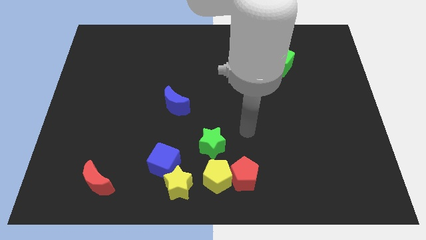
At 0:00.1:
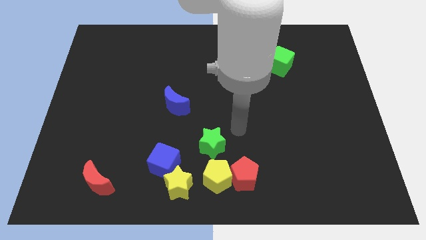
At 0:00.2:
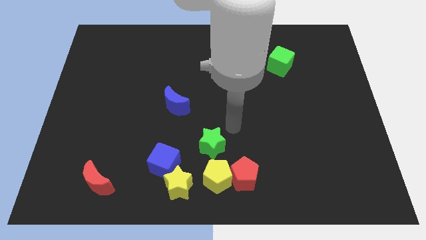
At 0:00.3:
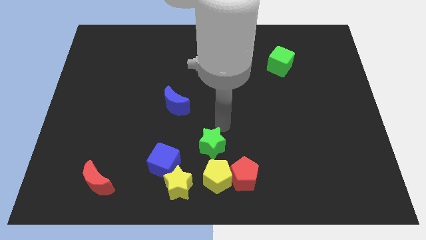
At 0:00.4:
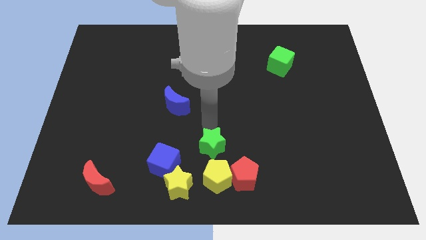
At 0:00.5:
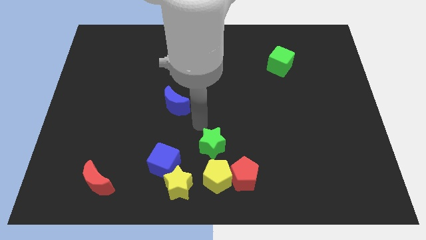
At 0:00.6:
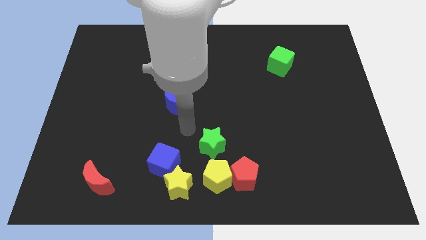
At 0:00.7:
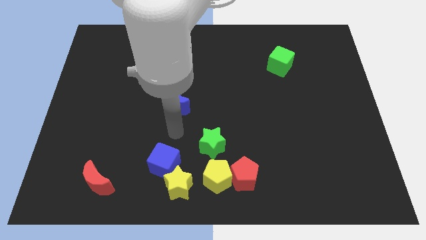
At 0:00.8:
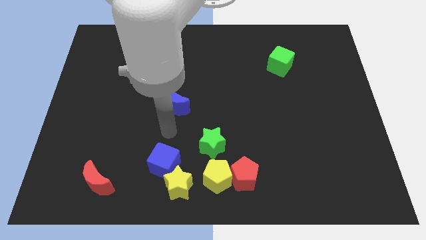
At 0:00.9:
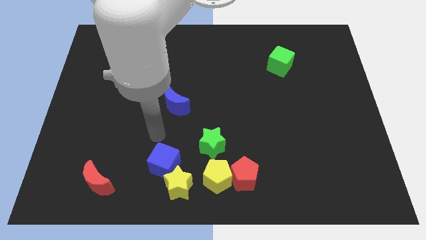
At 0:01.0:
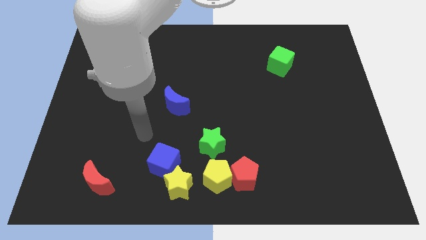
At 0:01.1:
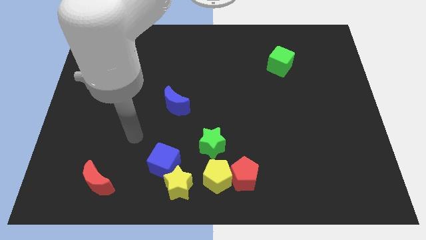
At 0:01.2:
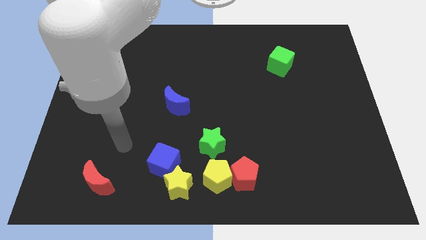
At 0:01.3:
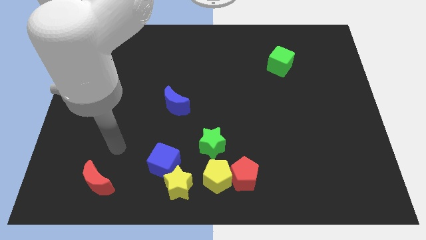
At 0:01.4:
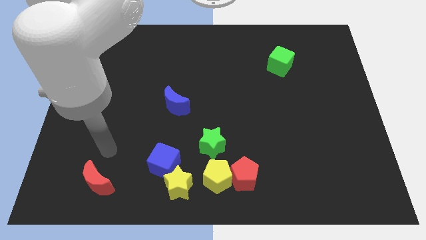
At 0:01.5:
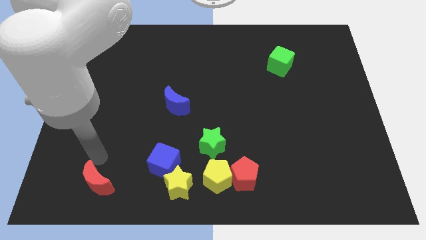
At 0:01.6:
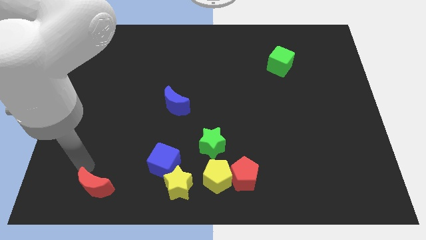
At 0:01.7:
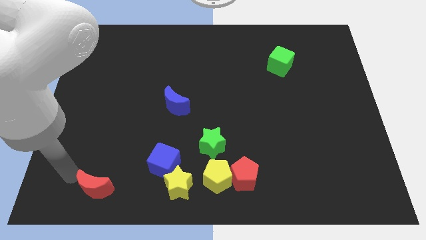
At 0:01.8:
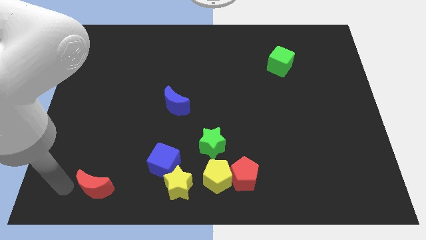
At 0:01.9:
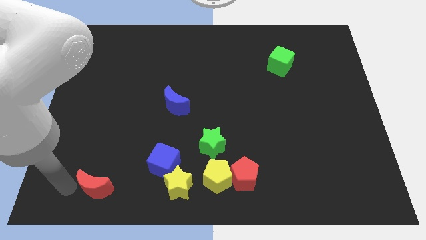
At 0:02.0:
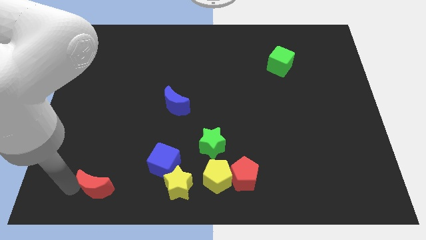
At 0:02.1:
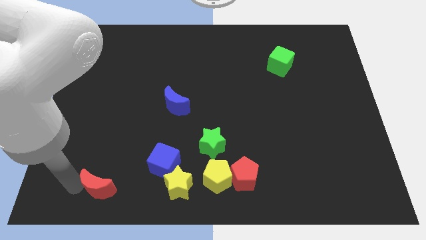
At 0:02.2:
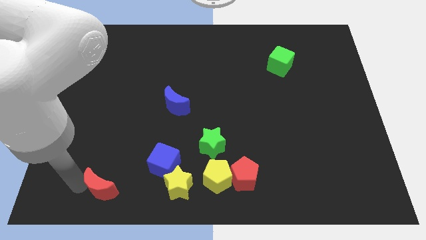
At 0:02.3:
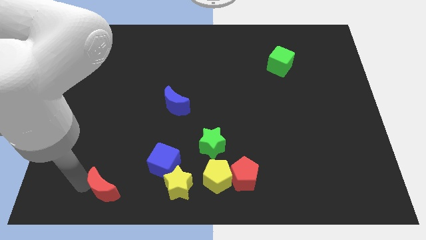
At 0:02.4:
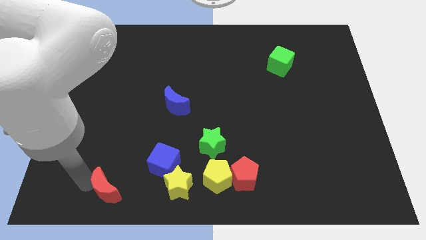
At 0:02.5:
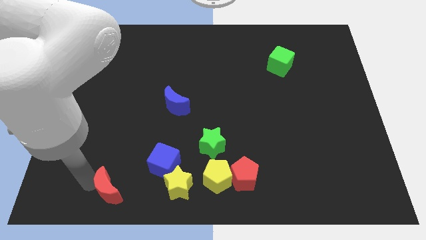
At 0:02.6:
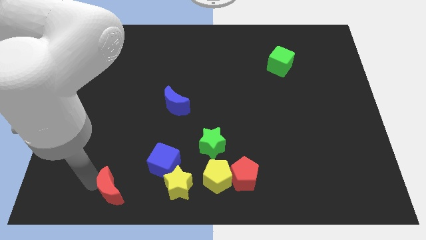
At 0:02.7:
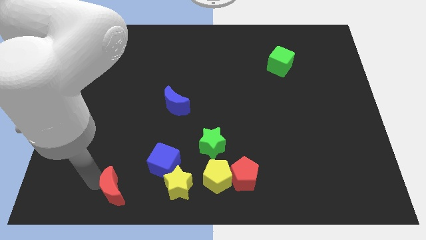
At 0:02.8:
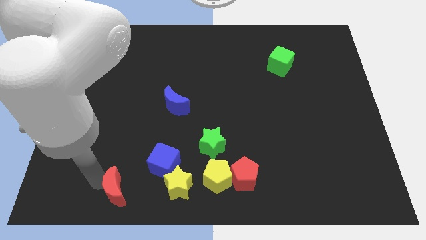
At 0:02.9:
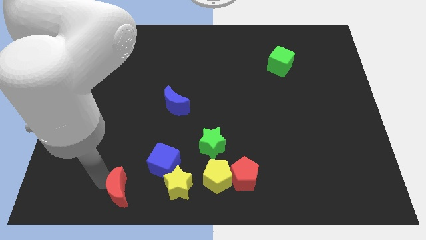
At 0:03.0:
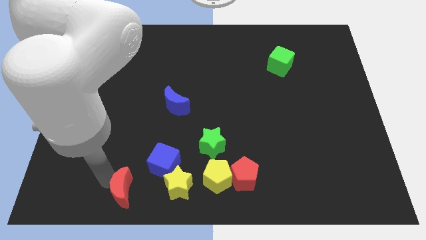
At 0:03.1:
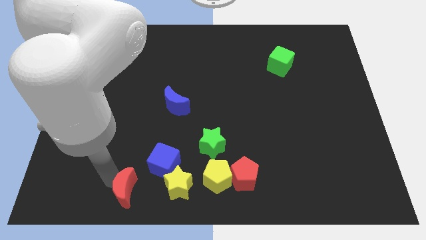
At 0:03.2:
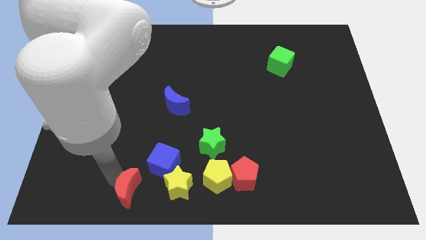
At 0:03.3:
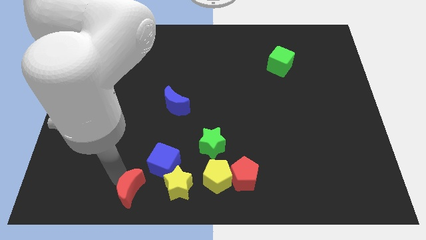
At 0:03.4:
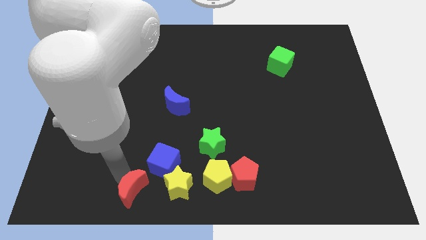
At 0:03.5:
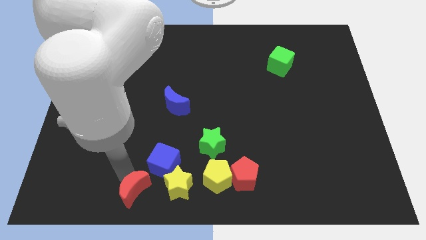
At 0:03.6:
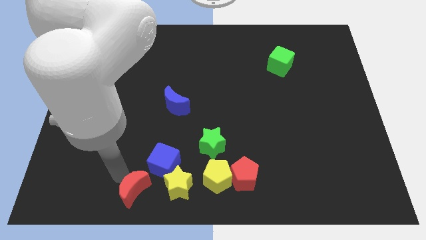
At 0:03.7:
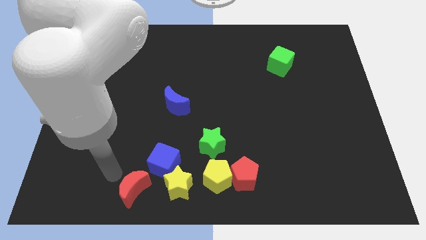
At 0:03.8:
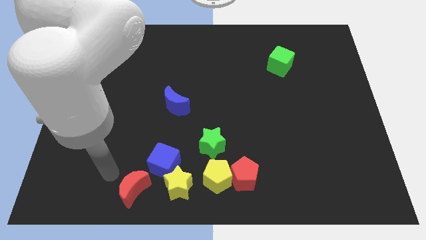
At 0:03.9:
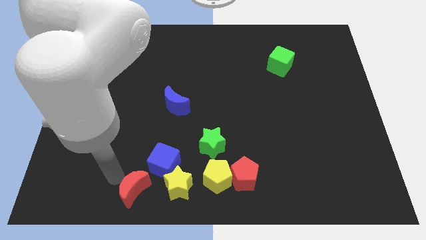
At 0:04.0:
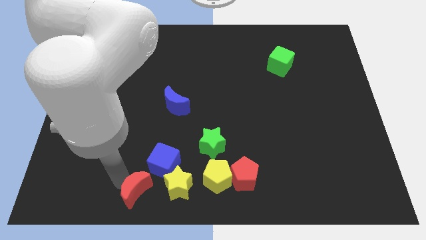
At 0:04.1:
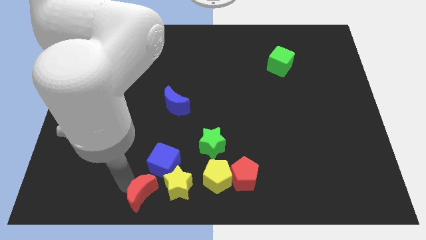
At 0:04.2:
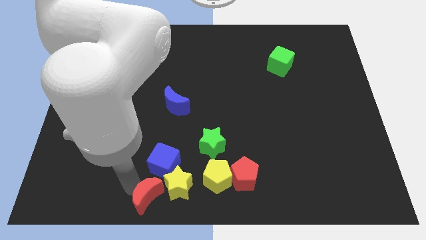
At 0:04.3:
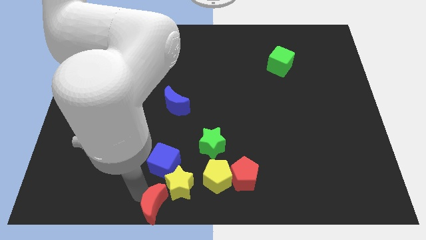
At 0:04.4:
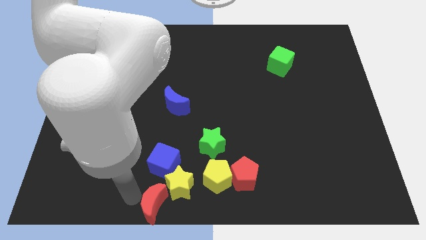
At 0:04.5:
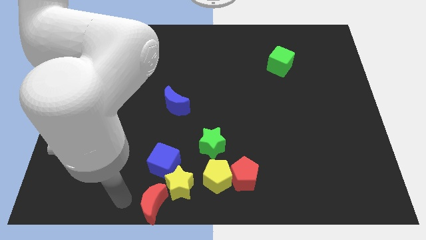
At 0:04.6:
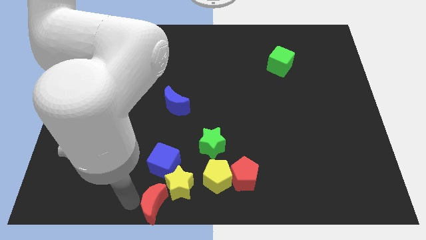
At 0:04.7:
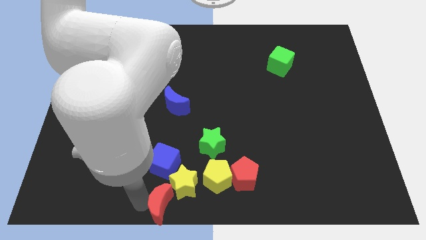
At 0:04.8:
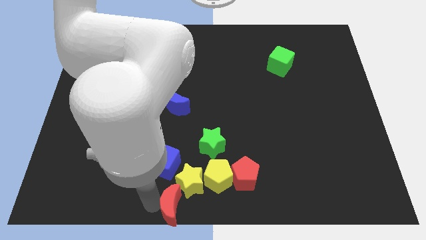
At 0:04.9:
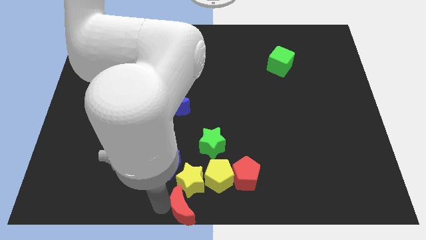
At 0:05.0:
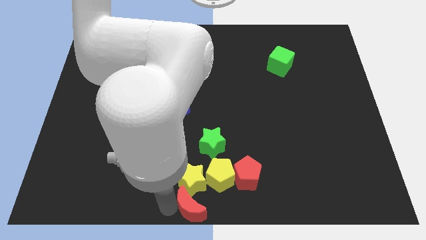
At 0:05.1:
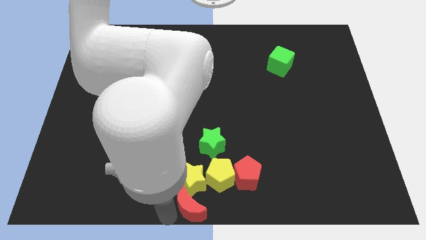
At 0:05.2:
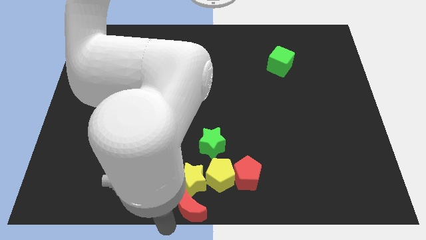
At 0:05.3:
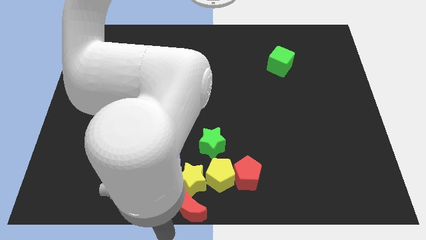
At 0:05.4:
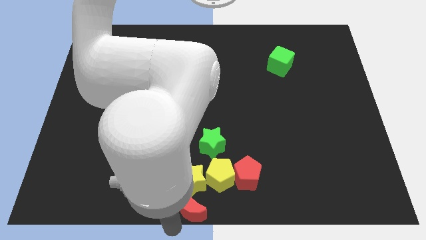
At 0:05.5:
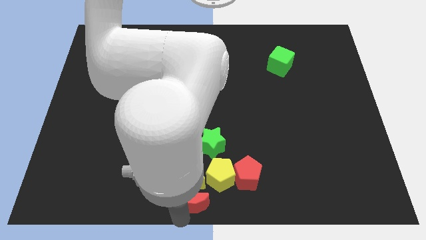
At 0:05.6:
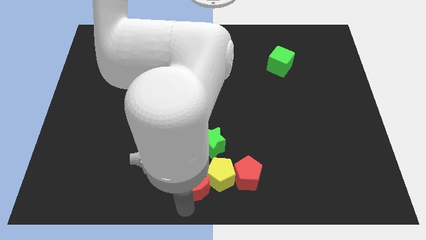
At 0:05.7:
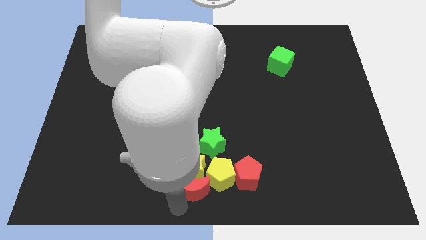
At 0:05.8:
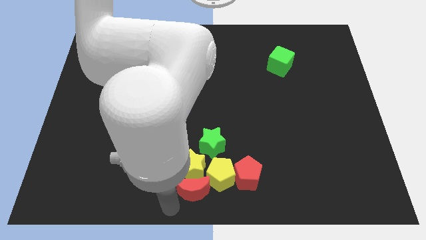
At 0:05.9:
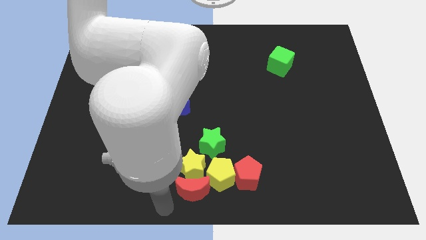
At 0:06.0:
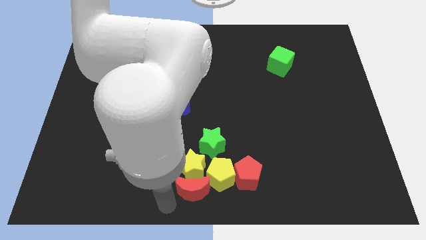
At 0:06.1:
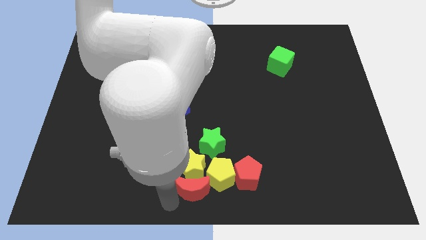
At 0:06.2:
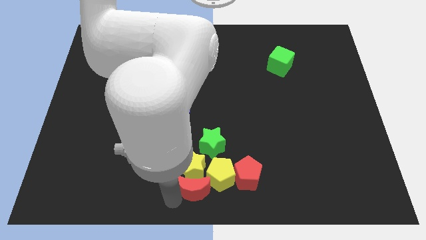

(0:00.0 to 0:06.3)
move the red moon towards the yellow pentagon

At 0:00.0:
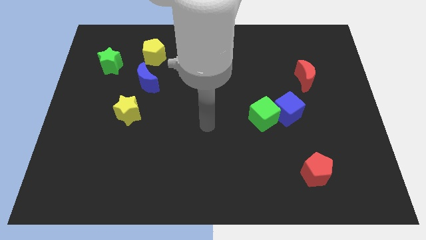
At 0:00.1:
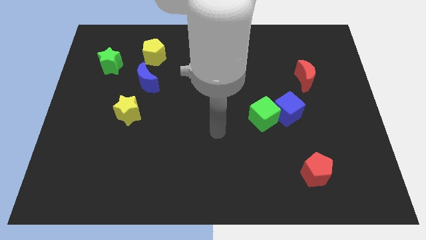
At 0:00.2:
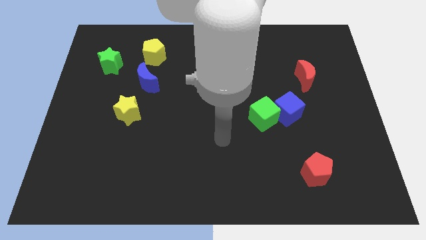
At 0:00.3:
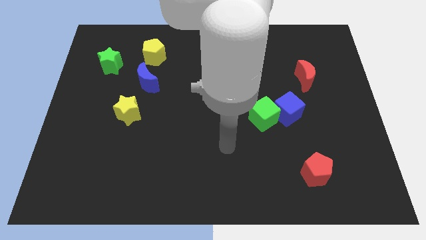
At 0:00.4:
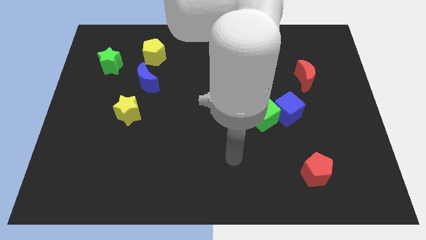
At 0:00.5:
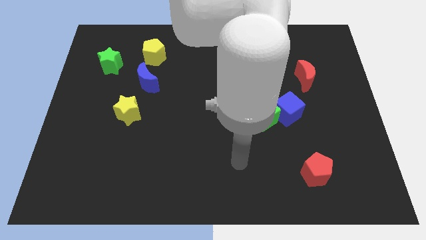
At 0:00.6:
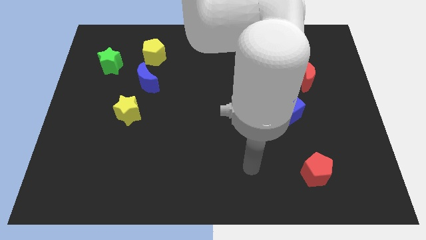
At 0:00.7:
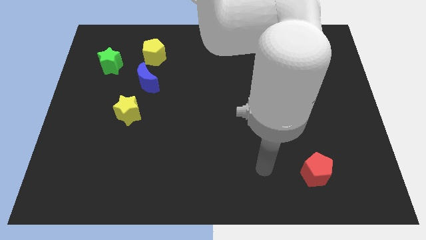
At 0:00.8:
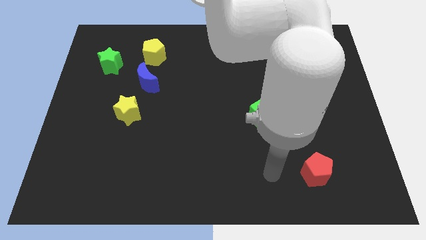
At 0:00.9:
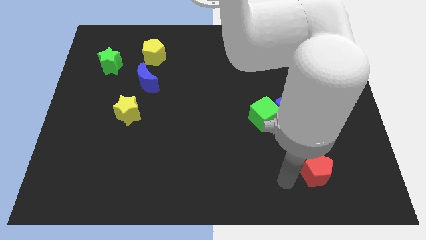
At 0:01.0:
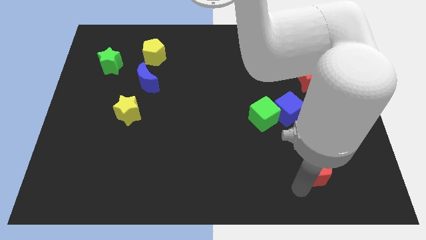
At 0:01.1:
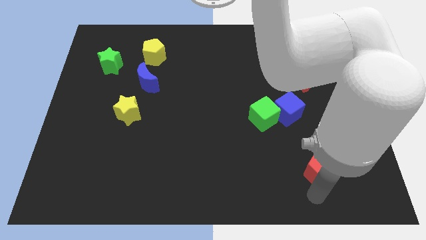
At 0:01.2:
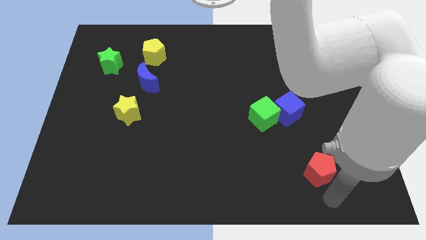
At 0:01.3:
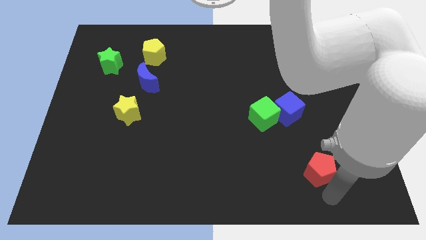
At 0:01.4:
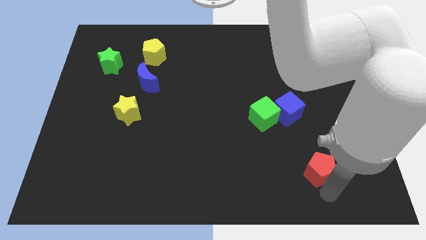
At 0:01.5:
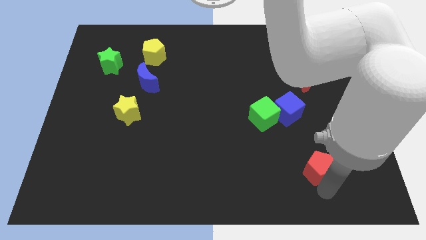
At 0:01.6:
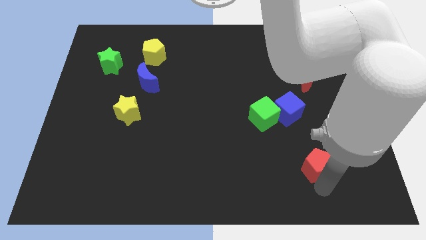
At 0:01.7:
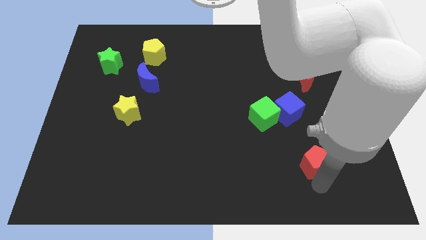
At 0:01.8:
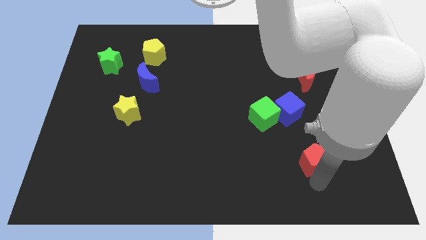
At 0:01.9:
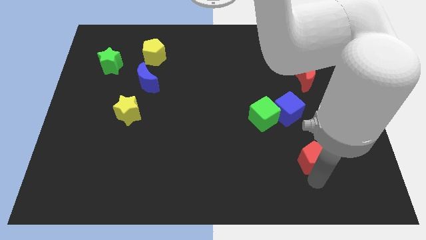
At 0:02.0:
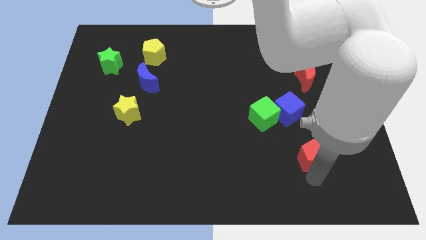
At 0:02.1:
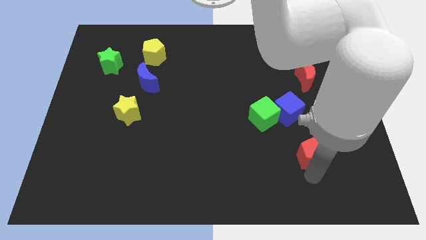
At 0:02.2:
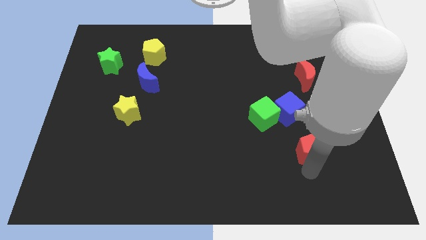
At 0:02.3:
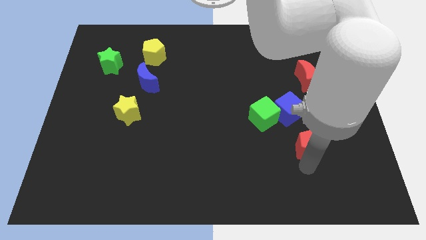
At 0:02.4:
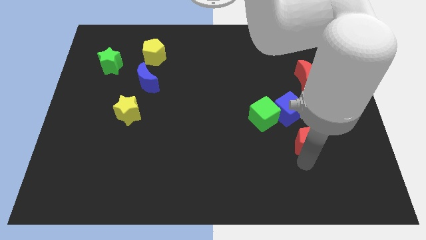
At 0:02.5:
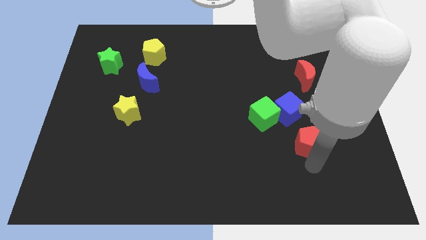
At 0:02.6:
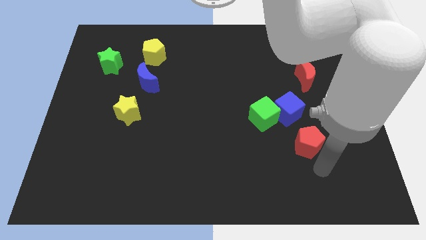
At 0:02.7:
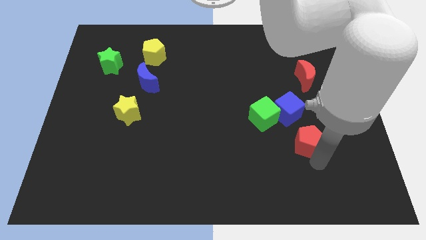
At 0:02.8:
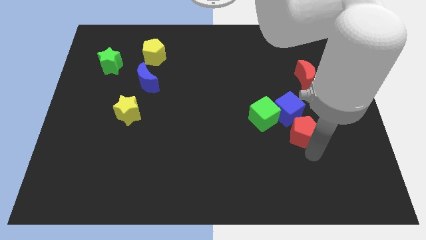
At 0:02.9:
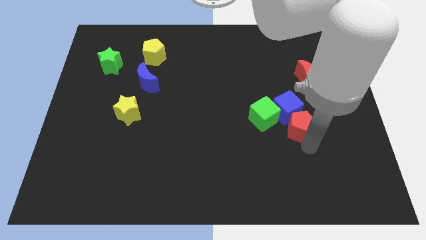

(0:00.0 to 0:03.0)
put the red pentagon next to the blue cube
